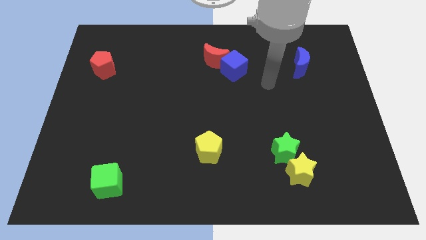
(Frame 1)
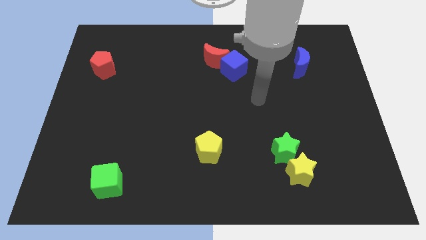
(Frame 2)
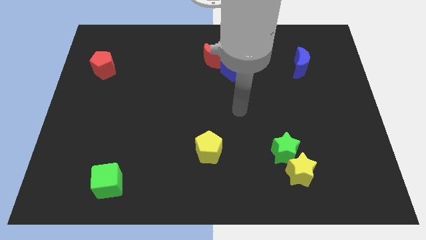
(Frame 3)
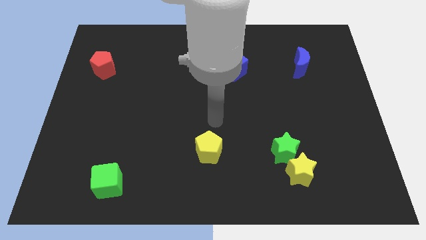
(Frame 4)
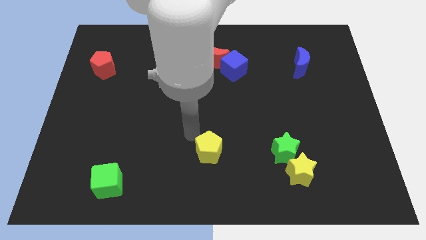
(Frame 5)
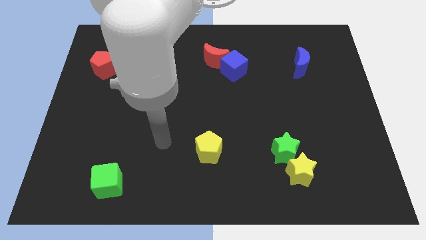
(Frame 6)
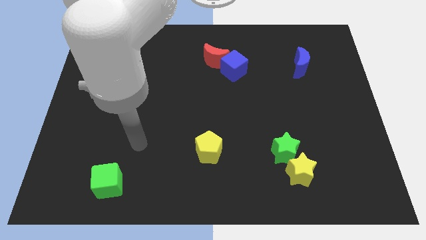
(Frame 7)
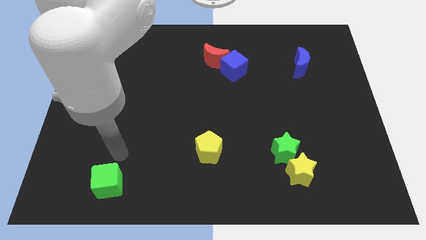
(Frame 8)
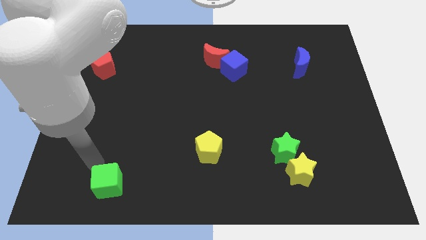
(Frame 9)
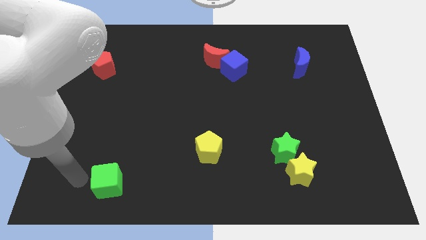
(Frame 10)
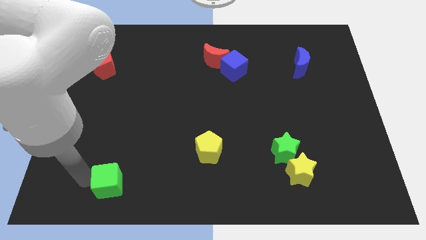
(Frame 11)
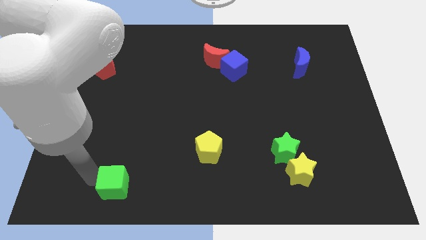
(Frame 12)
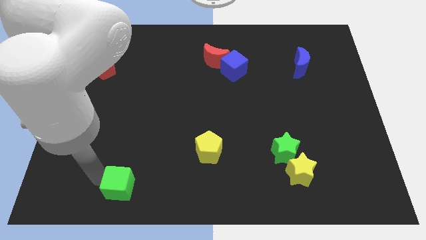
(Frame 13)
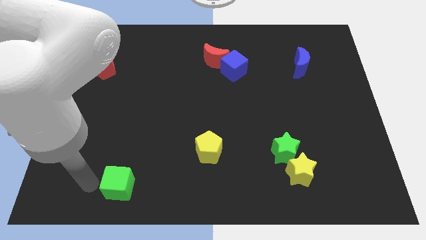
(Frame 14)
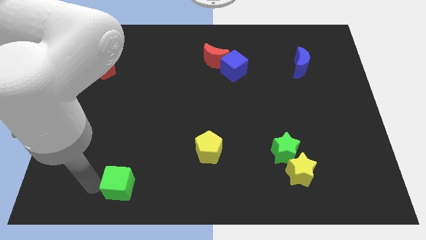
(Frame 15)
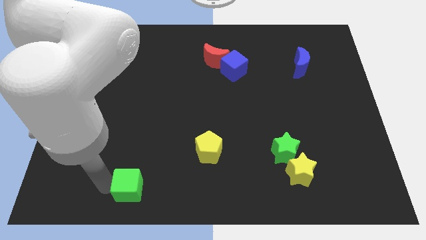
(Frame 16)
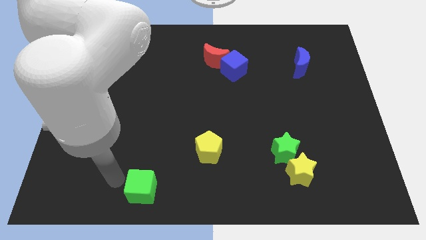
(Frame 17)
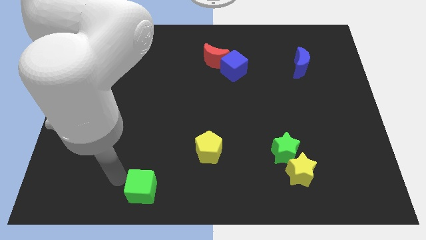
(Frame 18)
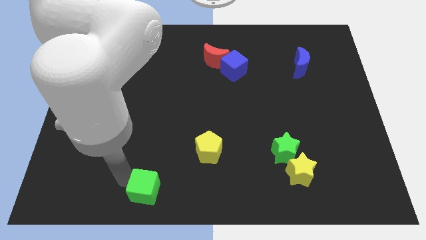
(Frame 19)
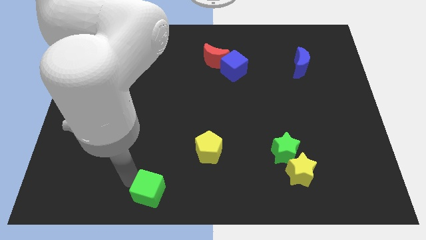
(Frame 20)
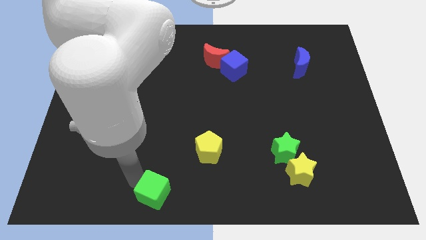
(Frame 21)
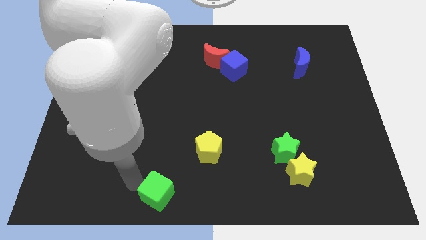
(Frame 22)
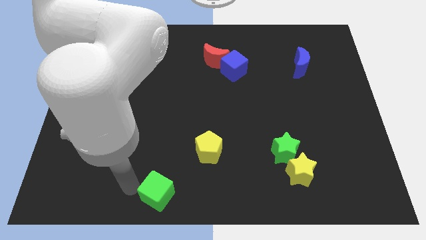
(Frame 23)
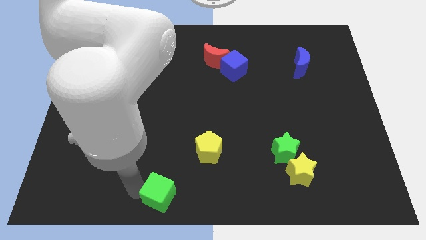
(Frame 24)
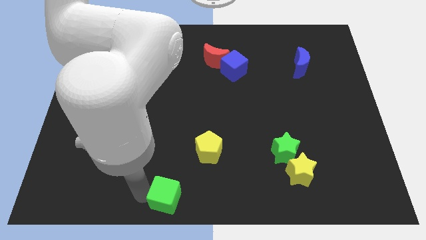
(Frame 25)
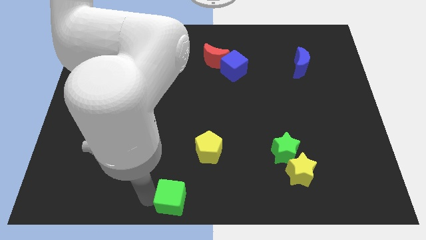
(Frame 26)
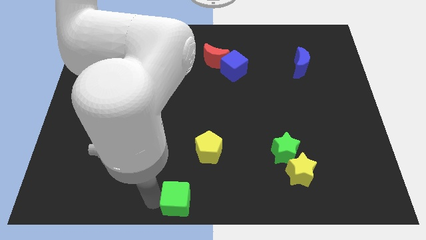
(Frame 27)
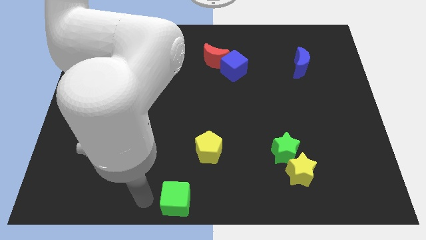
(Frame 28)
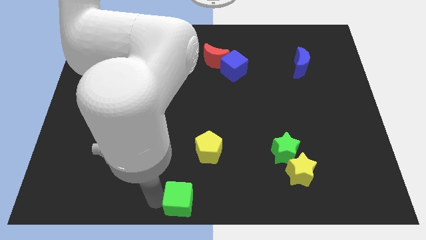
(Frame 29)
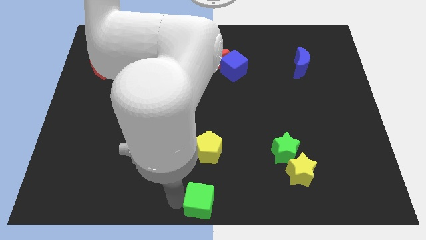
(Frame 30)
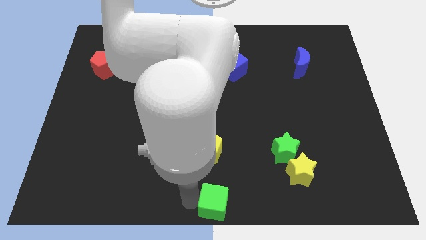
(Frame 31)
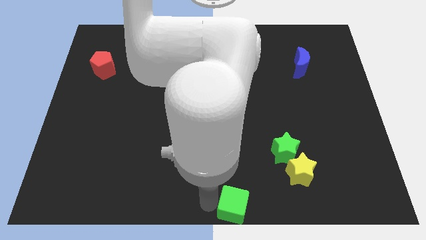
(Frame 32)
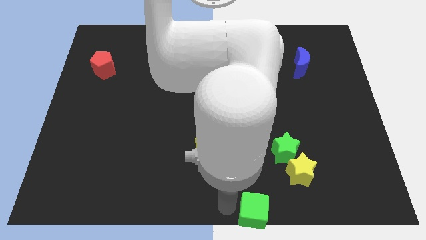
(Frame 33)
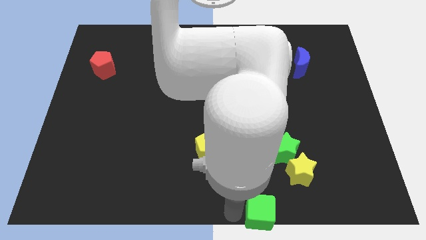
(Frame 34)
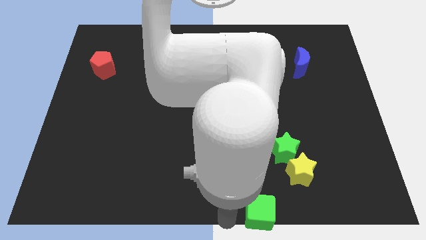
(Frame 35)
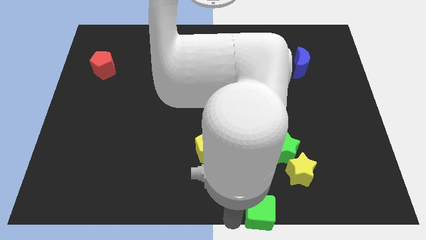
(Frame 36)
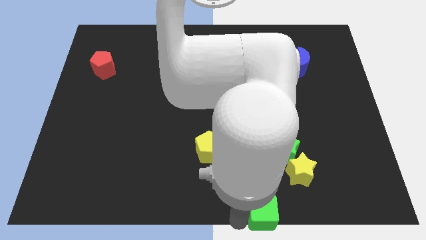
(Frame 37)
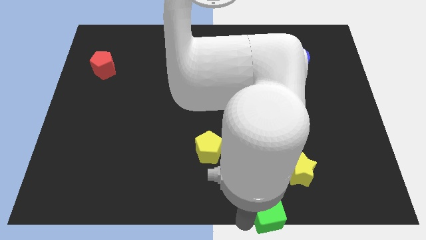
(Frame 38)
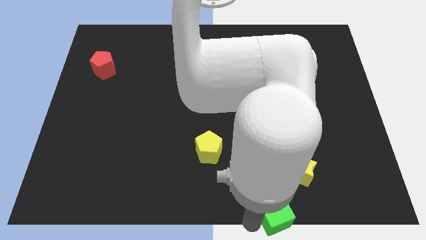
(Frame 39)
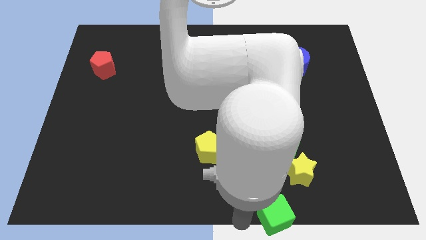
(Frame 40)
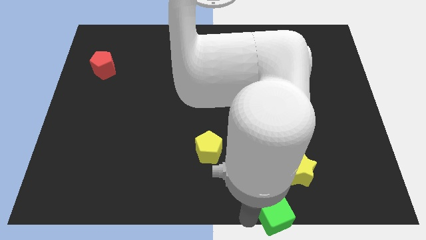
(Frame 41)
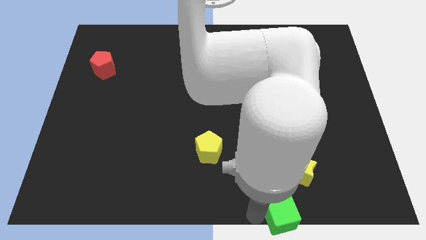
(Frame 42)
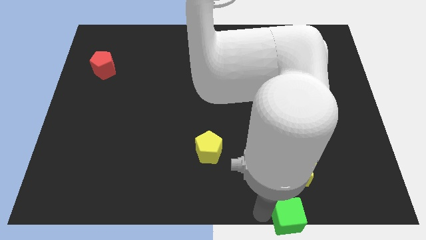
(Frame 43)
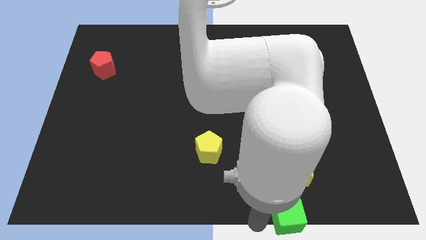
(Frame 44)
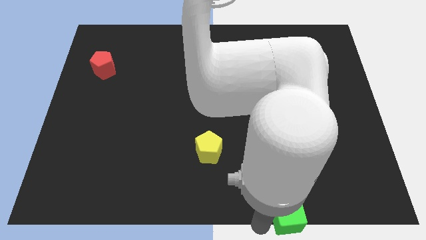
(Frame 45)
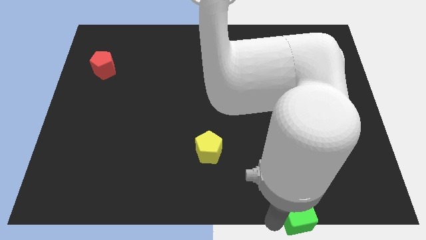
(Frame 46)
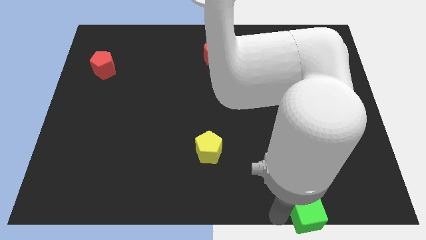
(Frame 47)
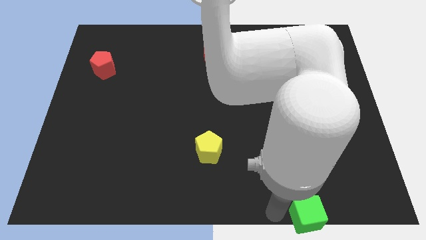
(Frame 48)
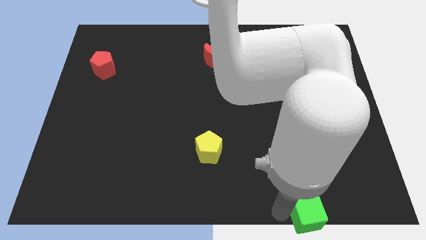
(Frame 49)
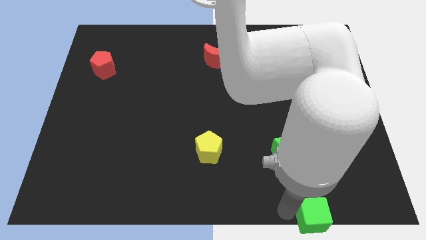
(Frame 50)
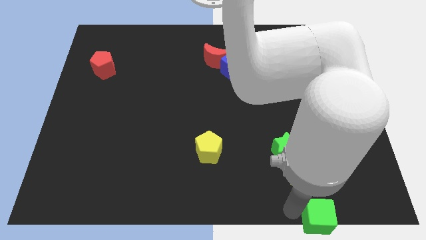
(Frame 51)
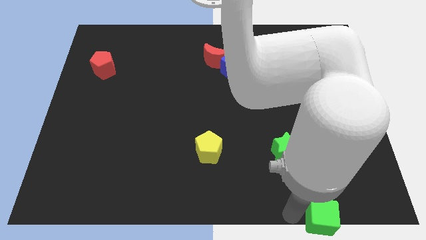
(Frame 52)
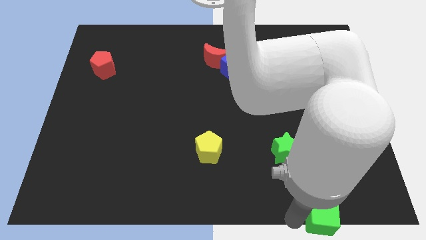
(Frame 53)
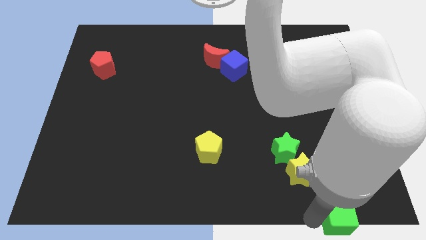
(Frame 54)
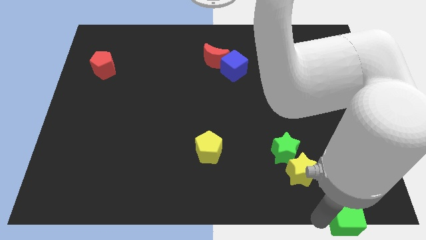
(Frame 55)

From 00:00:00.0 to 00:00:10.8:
push the green cube to the bottom right
